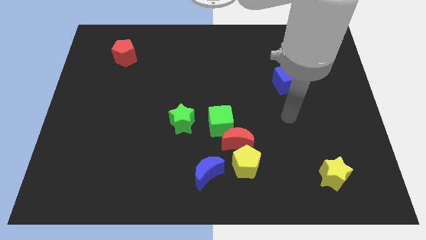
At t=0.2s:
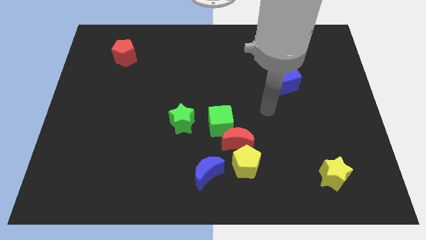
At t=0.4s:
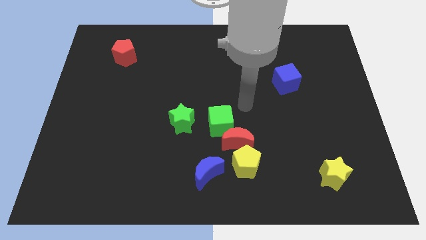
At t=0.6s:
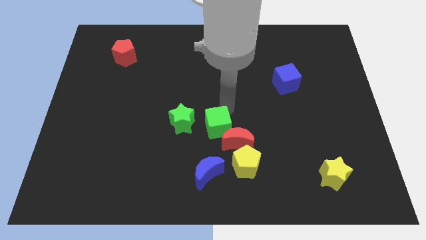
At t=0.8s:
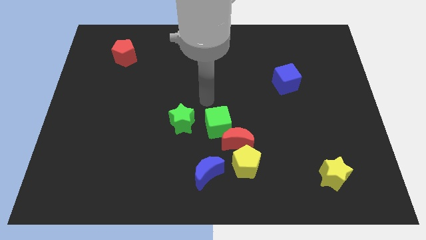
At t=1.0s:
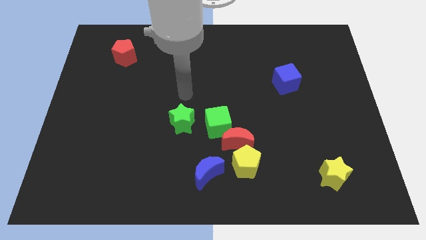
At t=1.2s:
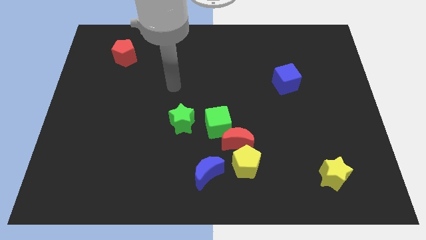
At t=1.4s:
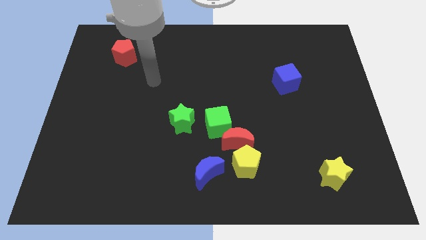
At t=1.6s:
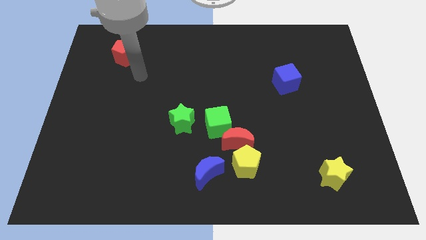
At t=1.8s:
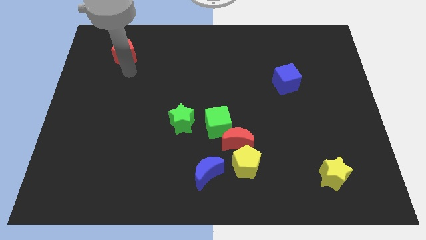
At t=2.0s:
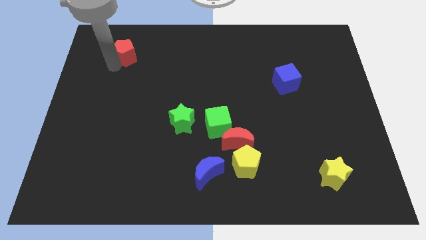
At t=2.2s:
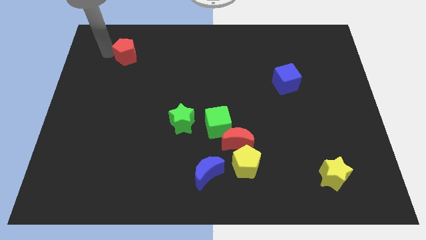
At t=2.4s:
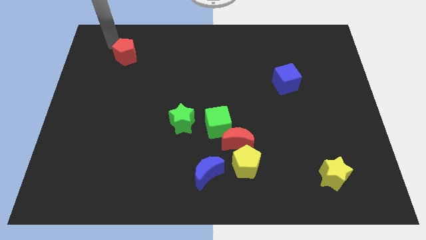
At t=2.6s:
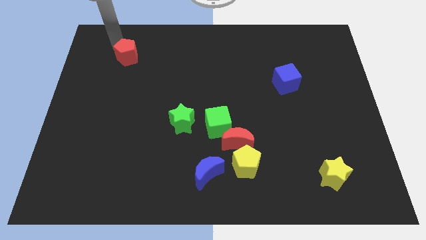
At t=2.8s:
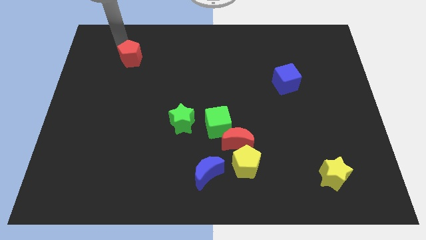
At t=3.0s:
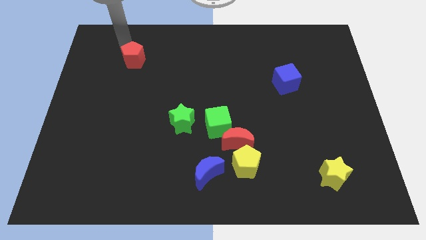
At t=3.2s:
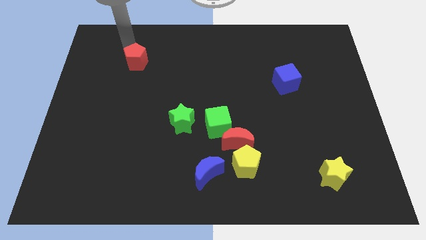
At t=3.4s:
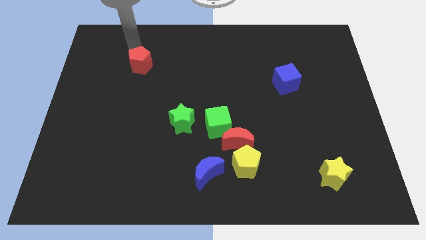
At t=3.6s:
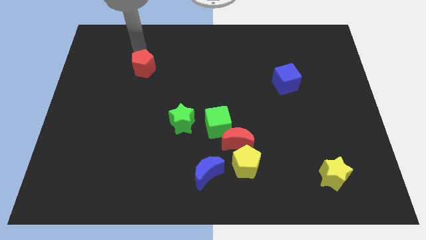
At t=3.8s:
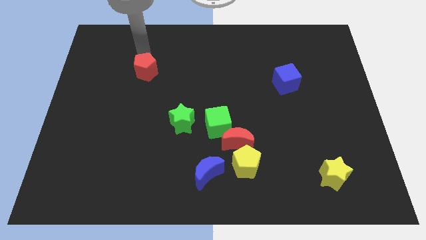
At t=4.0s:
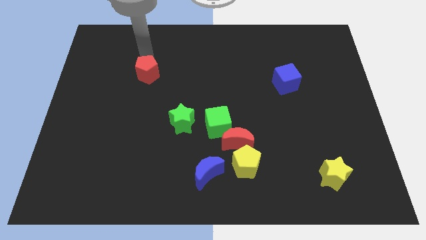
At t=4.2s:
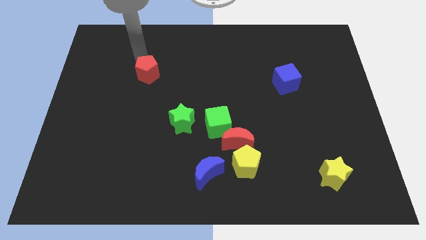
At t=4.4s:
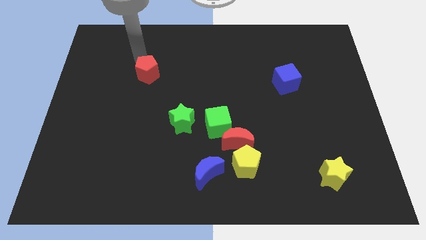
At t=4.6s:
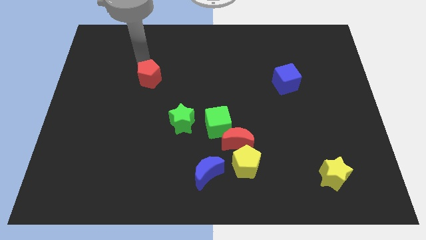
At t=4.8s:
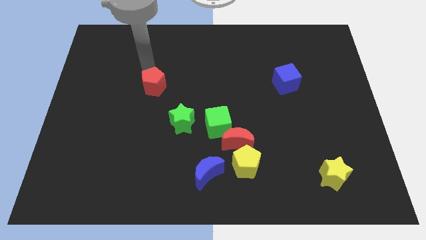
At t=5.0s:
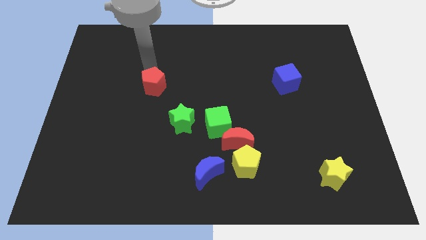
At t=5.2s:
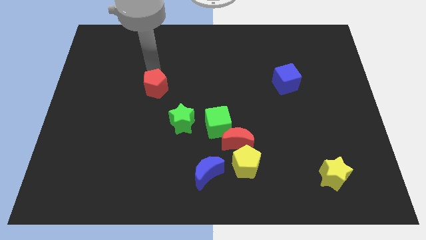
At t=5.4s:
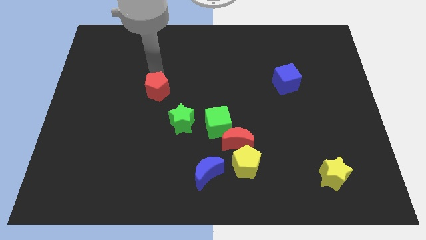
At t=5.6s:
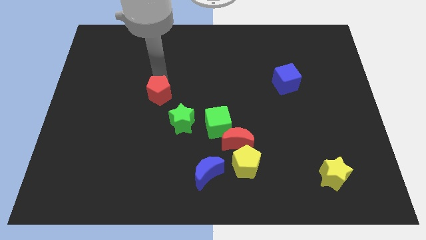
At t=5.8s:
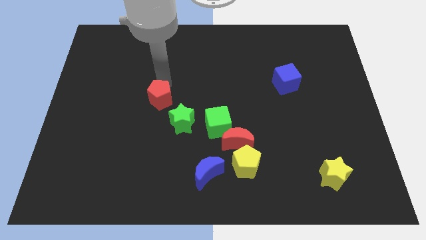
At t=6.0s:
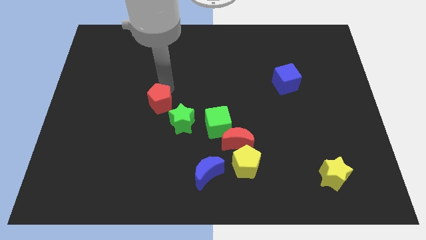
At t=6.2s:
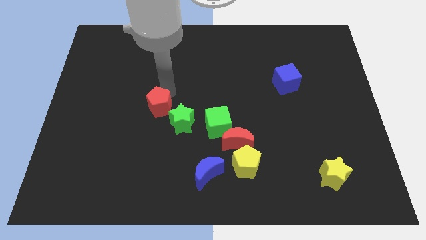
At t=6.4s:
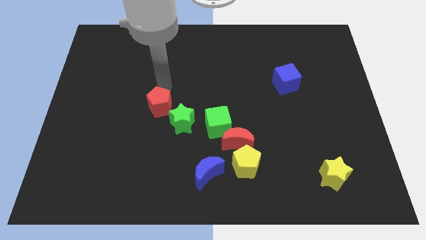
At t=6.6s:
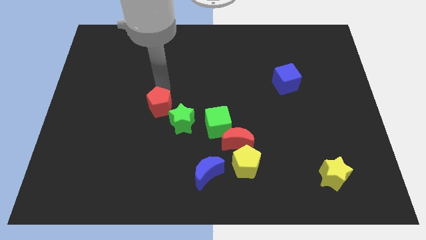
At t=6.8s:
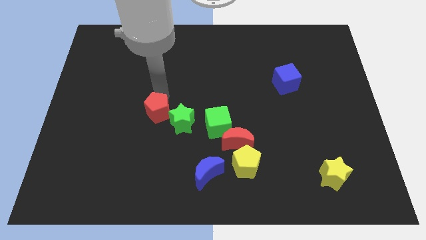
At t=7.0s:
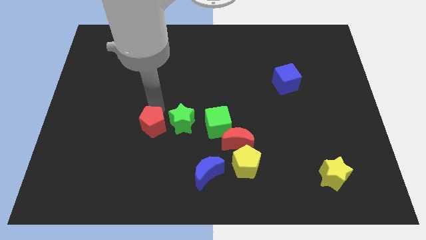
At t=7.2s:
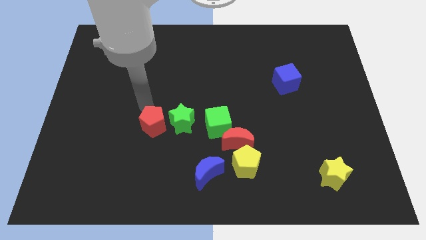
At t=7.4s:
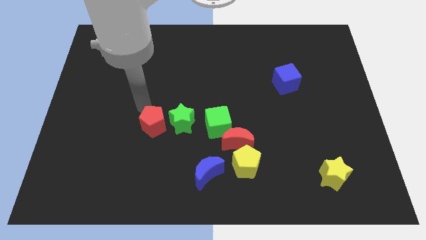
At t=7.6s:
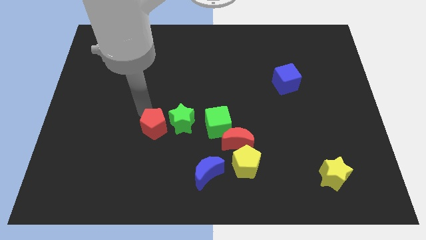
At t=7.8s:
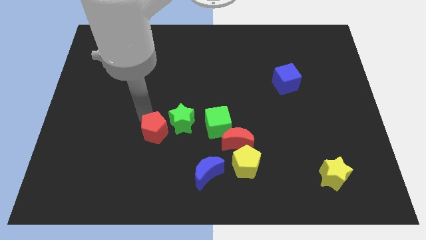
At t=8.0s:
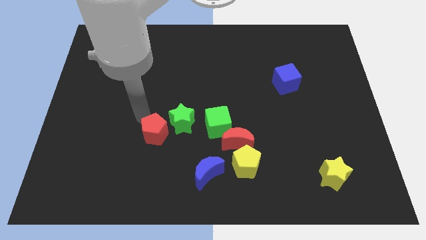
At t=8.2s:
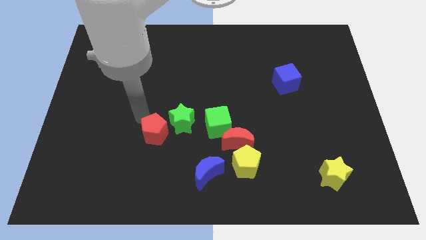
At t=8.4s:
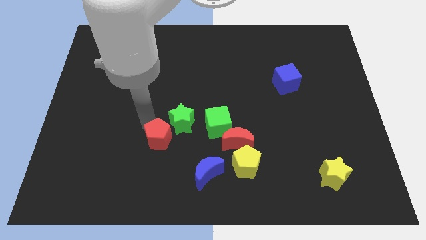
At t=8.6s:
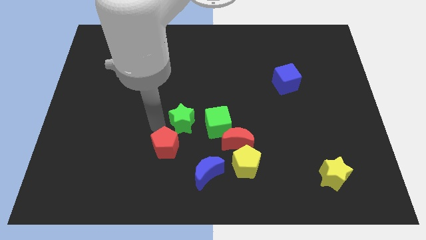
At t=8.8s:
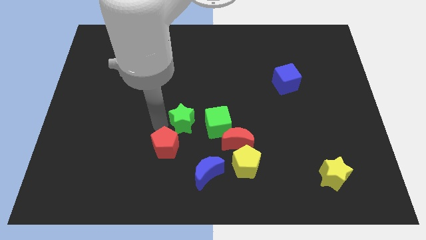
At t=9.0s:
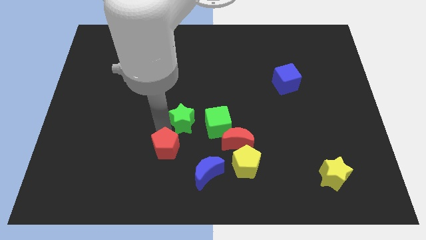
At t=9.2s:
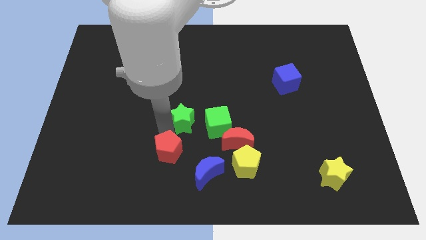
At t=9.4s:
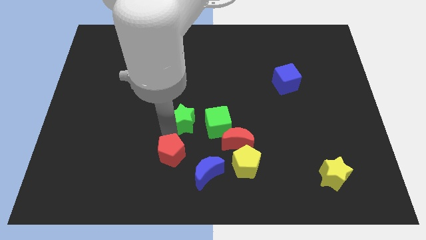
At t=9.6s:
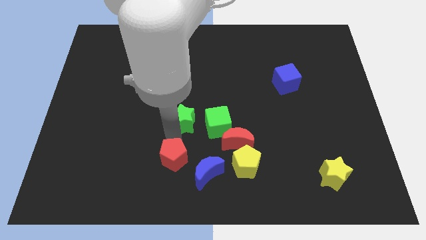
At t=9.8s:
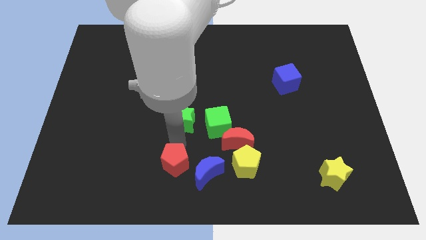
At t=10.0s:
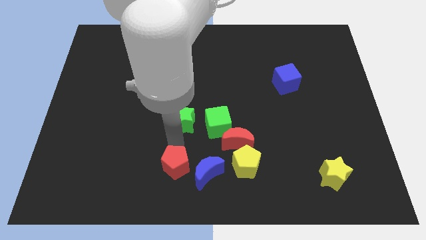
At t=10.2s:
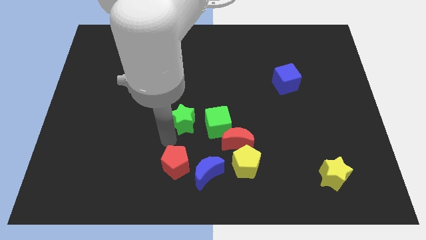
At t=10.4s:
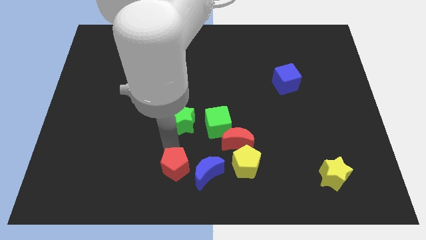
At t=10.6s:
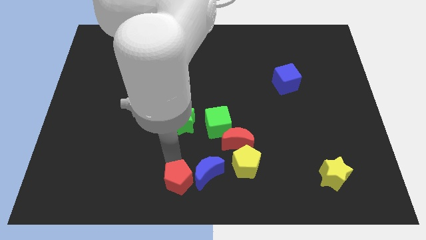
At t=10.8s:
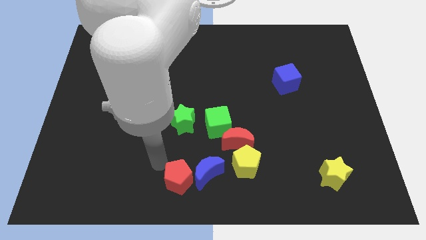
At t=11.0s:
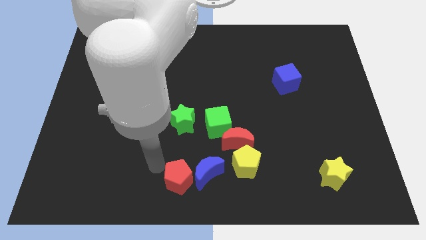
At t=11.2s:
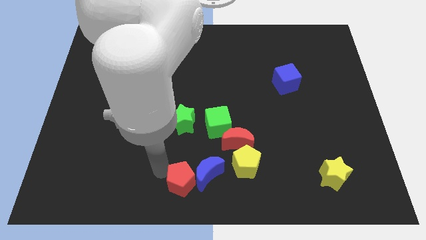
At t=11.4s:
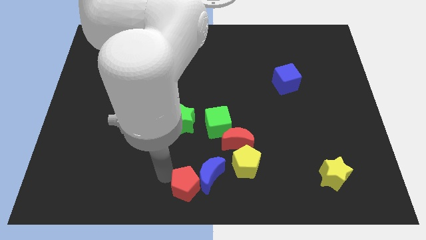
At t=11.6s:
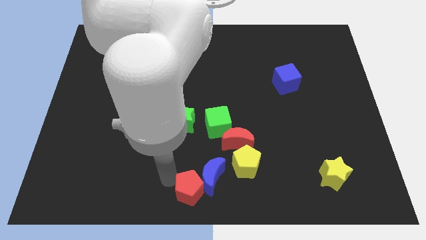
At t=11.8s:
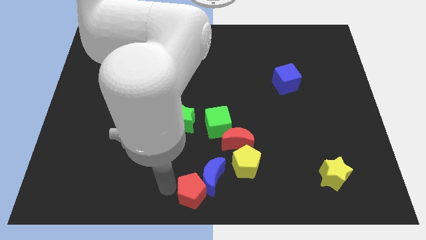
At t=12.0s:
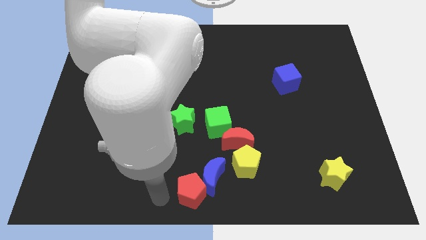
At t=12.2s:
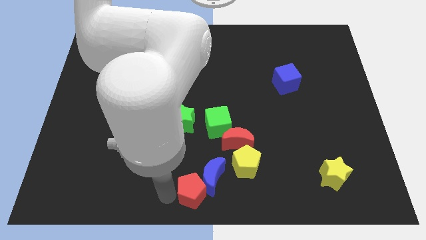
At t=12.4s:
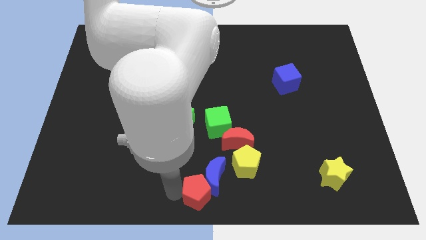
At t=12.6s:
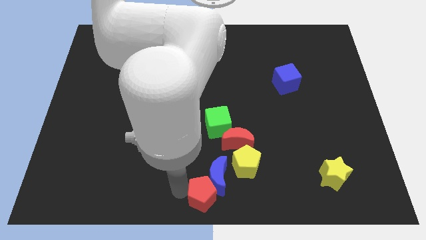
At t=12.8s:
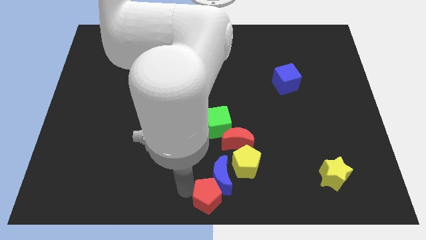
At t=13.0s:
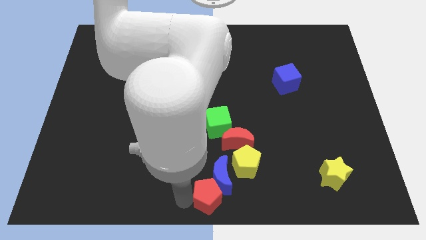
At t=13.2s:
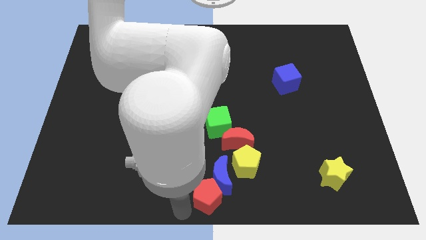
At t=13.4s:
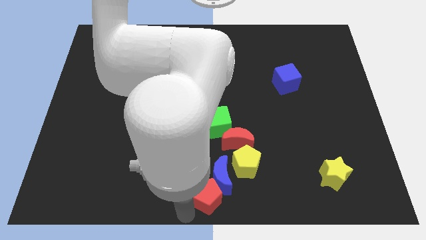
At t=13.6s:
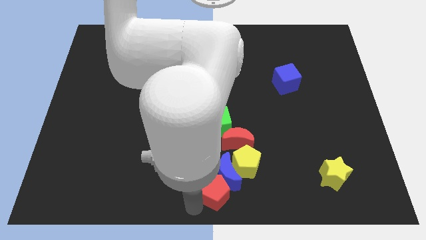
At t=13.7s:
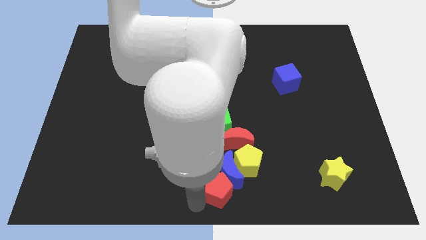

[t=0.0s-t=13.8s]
slide the red pentagon below the green cube

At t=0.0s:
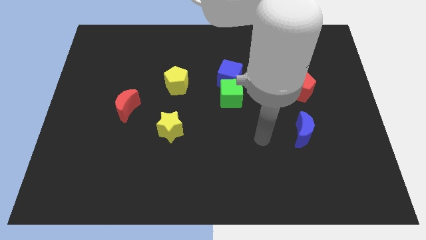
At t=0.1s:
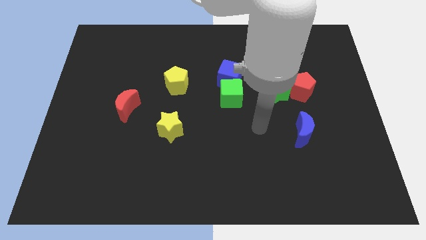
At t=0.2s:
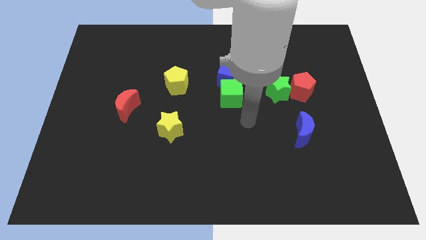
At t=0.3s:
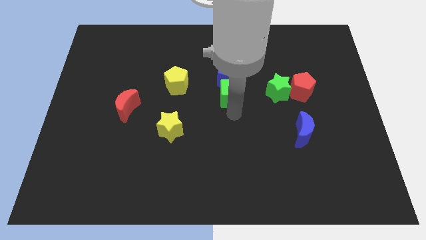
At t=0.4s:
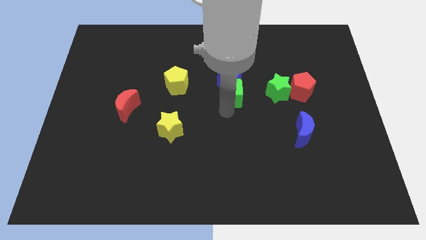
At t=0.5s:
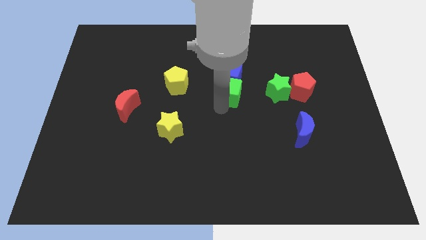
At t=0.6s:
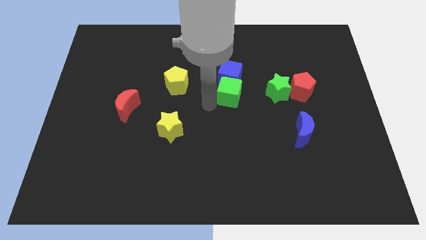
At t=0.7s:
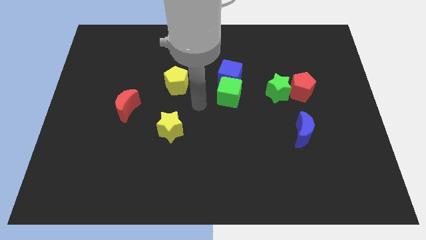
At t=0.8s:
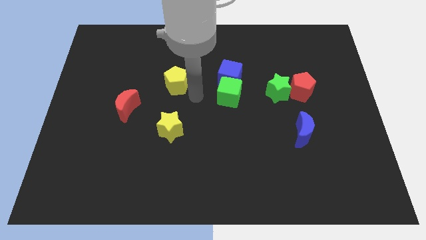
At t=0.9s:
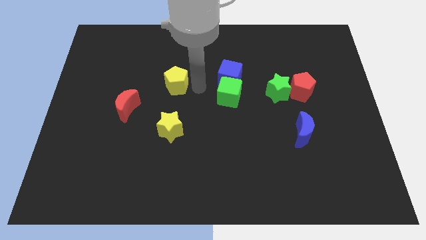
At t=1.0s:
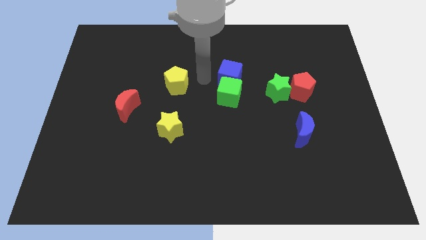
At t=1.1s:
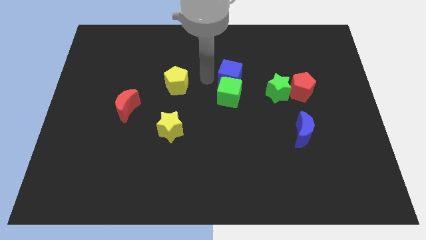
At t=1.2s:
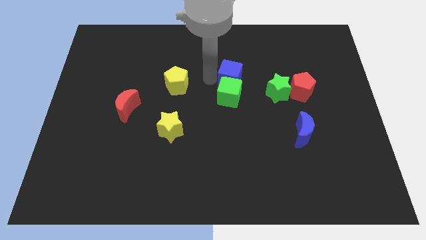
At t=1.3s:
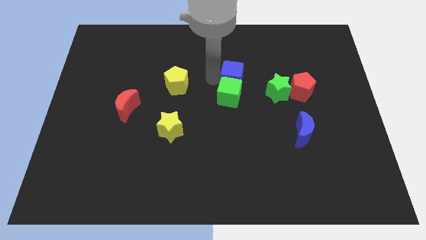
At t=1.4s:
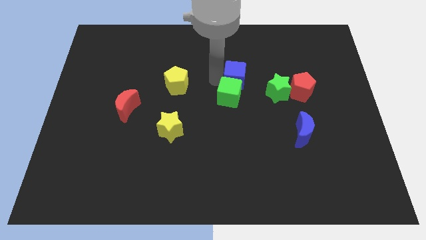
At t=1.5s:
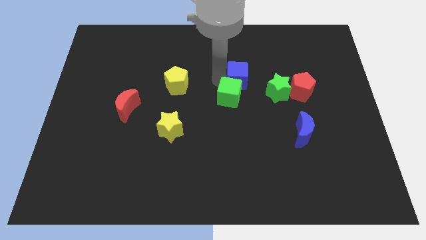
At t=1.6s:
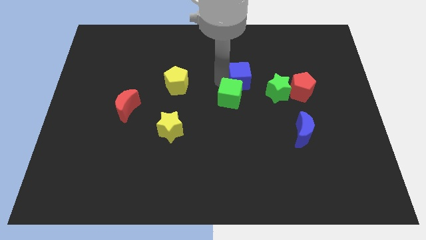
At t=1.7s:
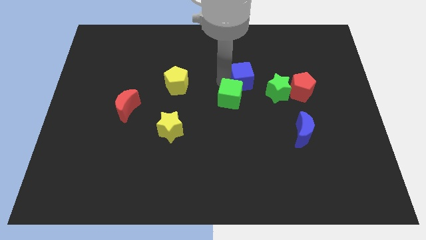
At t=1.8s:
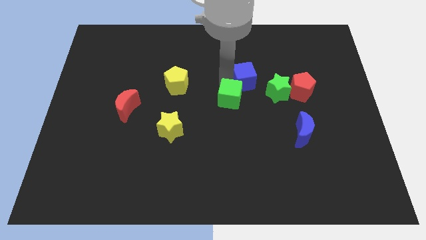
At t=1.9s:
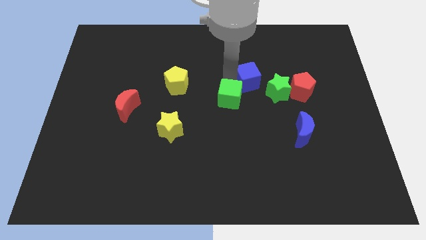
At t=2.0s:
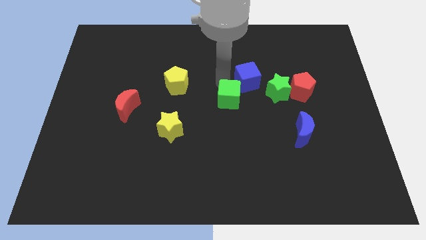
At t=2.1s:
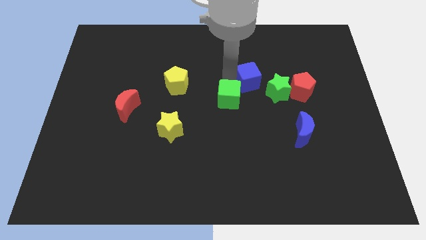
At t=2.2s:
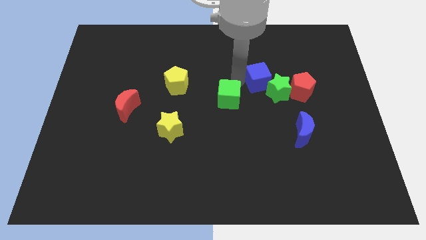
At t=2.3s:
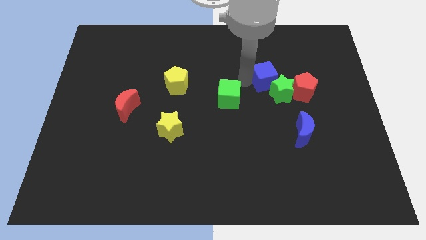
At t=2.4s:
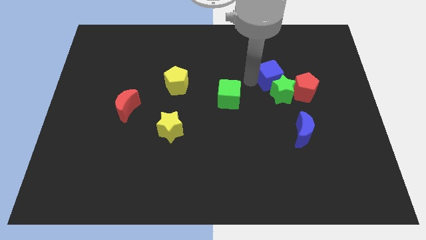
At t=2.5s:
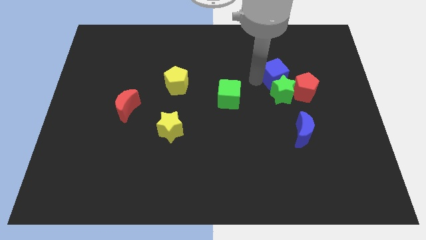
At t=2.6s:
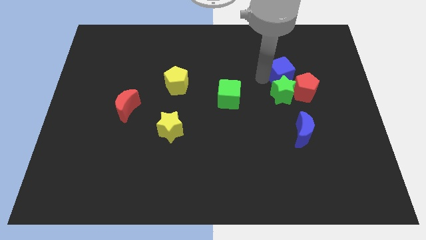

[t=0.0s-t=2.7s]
slide the blue cube diagonally up and to the right of the green star
